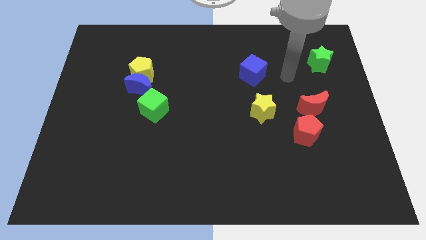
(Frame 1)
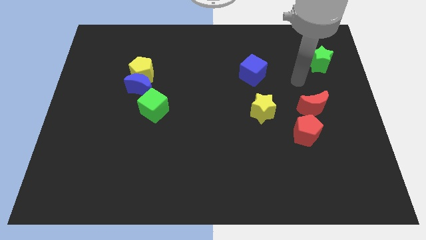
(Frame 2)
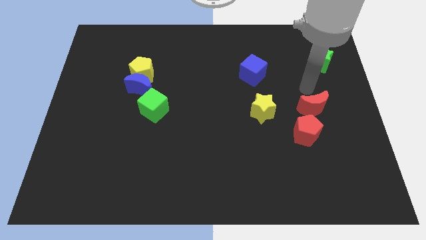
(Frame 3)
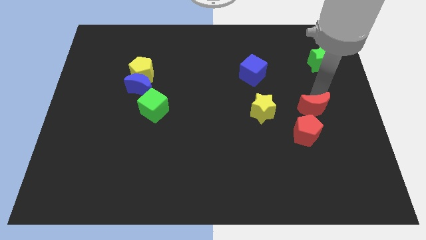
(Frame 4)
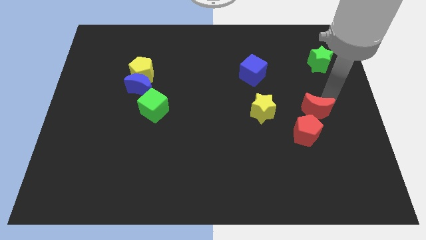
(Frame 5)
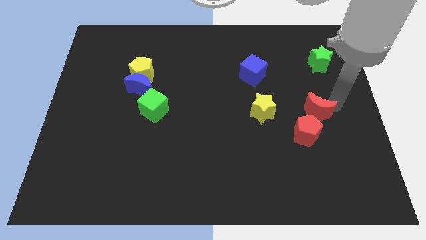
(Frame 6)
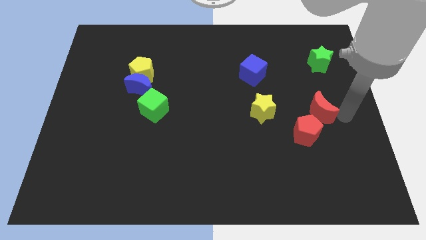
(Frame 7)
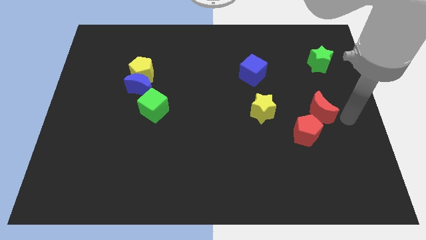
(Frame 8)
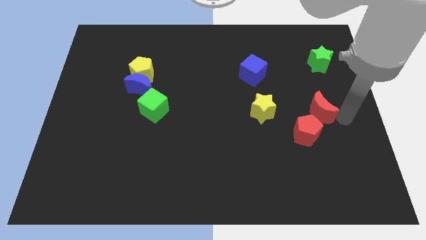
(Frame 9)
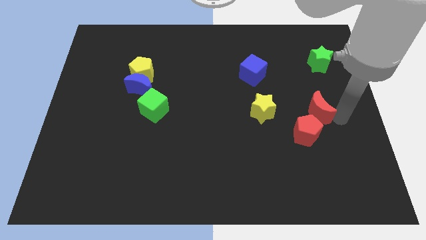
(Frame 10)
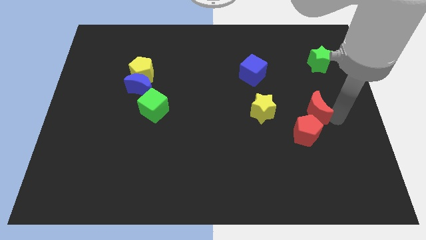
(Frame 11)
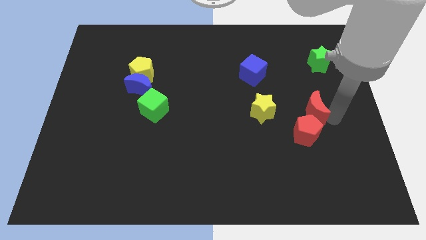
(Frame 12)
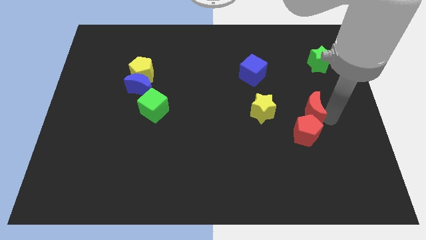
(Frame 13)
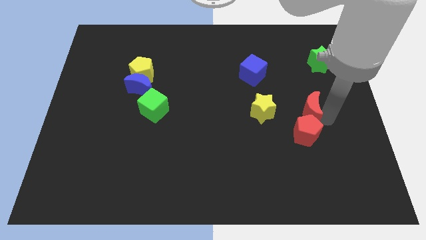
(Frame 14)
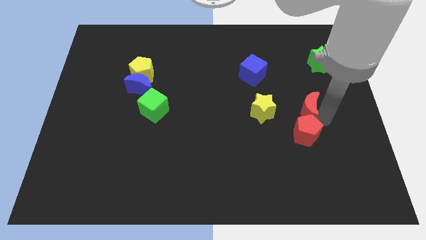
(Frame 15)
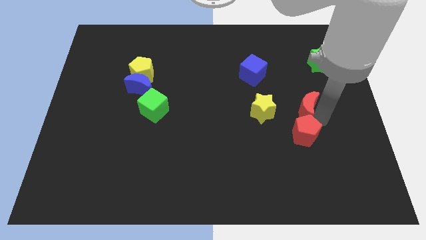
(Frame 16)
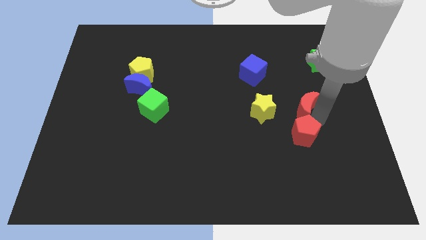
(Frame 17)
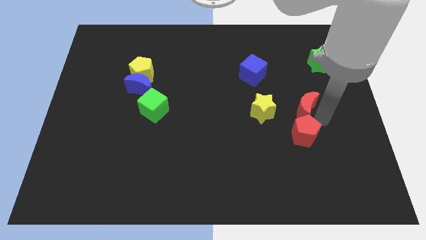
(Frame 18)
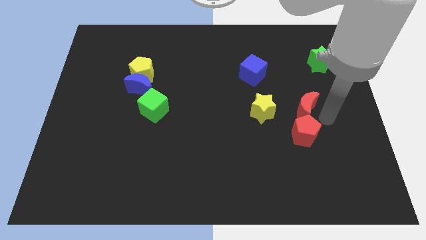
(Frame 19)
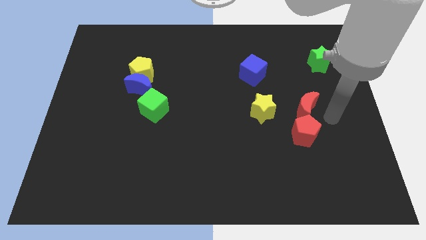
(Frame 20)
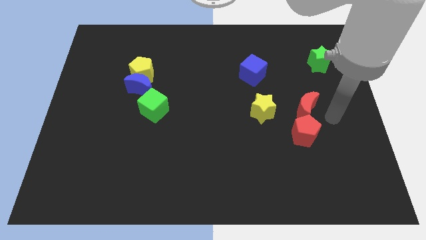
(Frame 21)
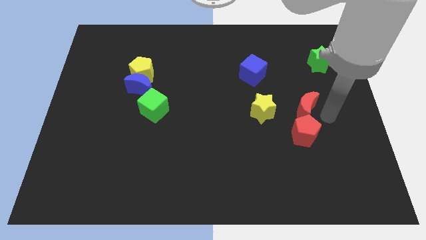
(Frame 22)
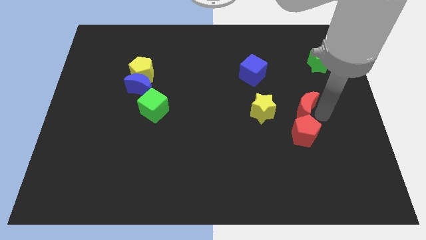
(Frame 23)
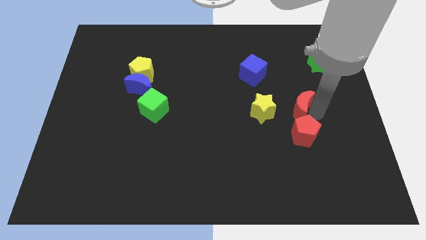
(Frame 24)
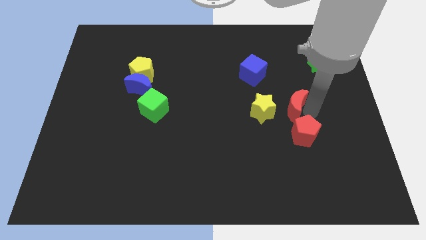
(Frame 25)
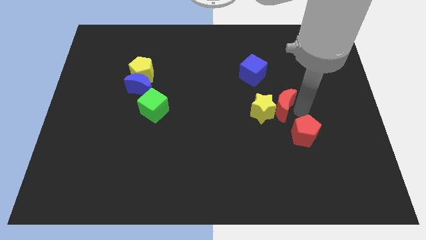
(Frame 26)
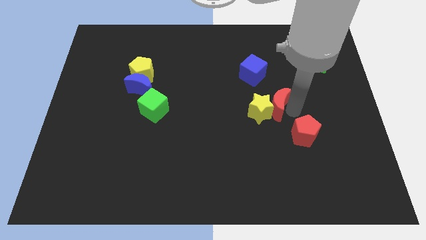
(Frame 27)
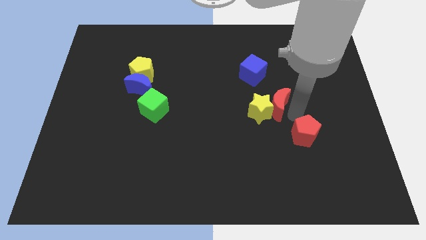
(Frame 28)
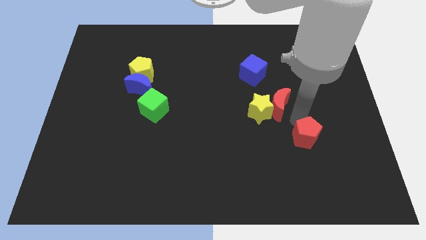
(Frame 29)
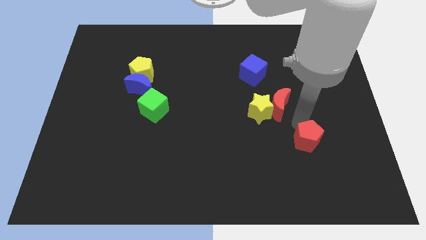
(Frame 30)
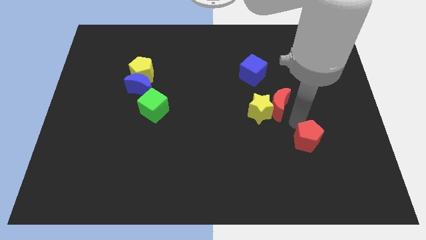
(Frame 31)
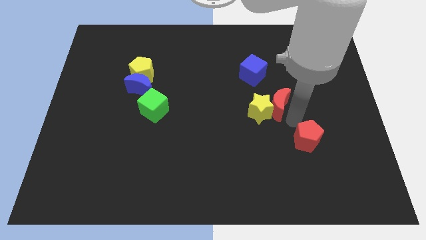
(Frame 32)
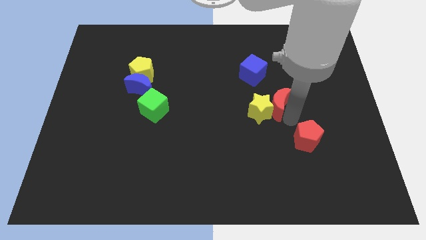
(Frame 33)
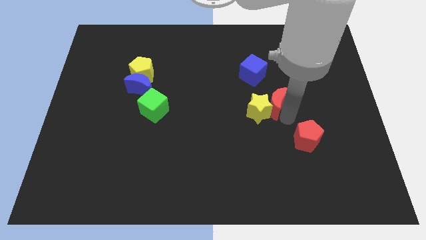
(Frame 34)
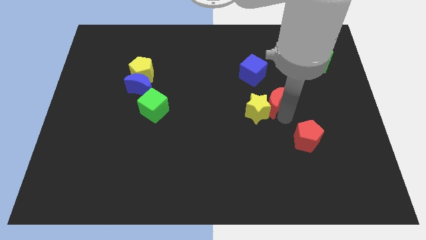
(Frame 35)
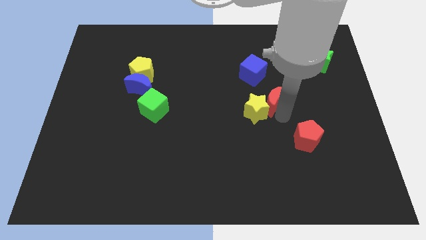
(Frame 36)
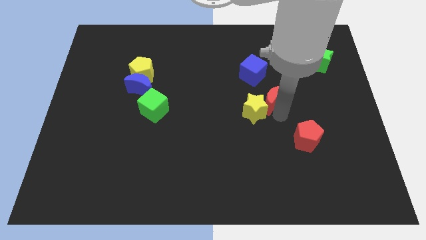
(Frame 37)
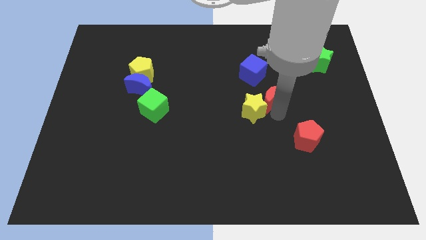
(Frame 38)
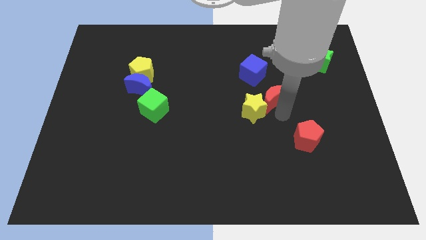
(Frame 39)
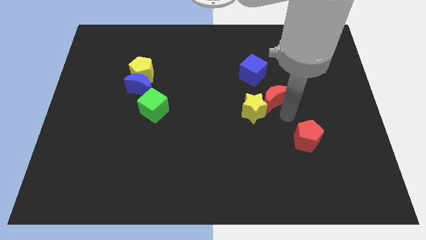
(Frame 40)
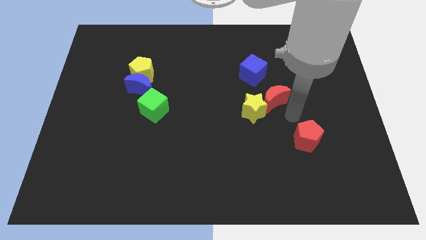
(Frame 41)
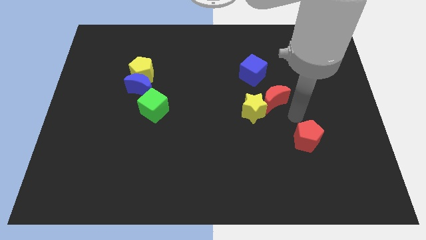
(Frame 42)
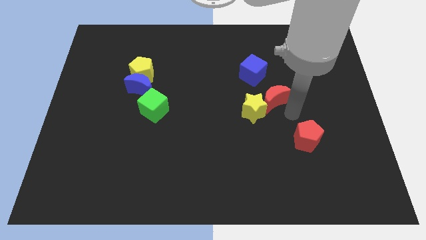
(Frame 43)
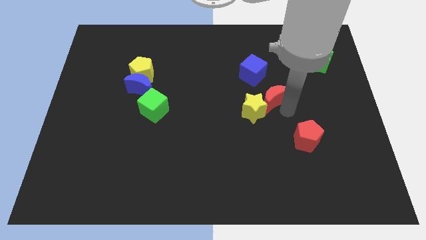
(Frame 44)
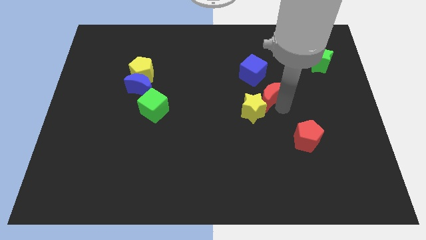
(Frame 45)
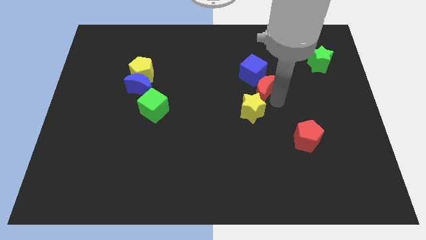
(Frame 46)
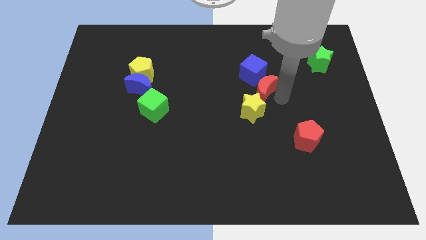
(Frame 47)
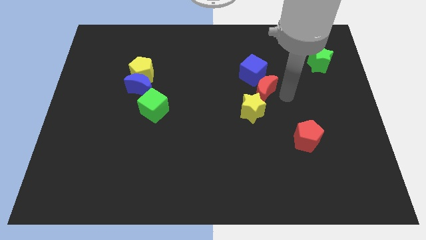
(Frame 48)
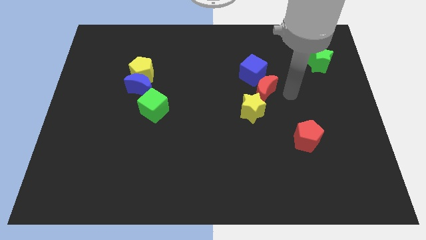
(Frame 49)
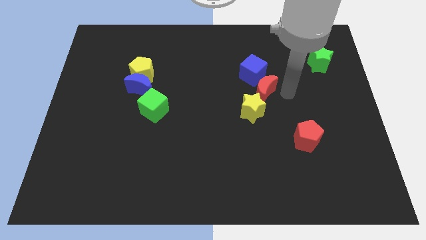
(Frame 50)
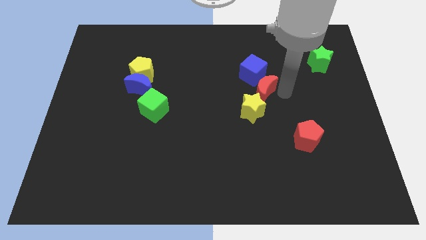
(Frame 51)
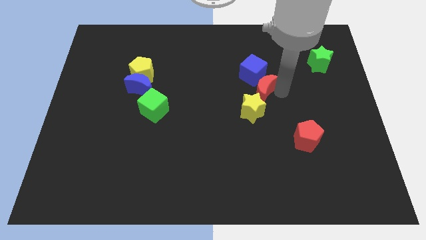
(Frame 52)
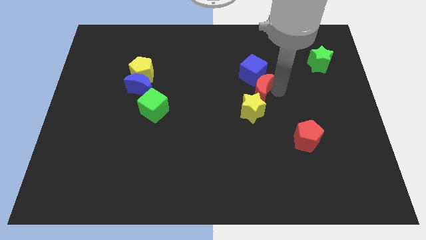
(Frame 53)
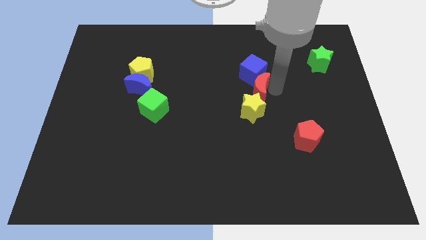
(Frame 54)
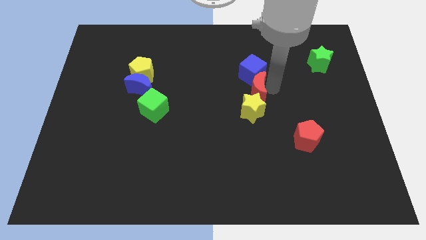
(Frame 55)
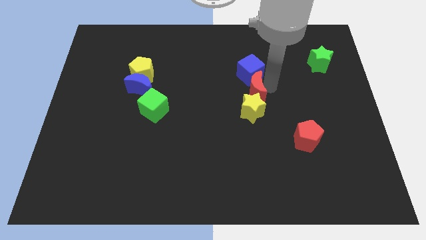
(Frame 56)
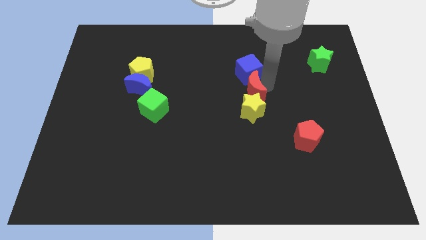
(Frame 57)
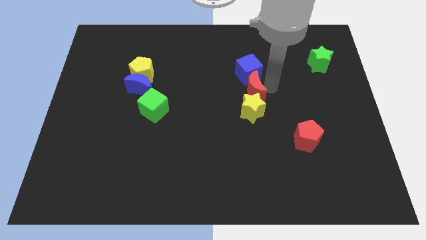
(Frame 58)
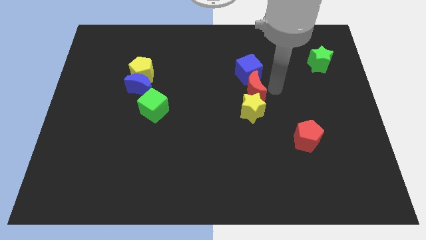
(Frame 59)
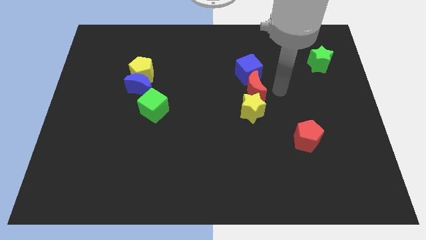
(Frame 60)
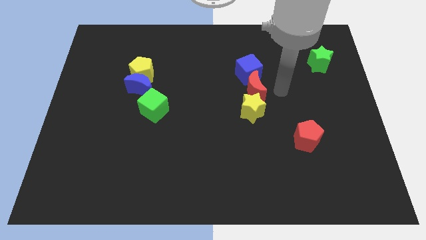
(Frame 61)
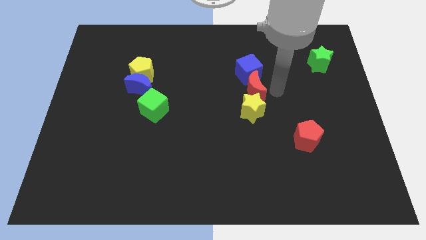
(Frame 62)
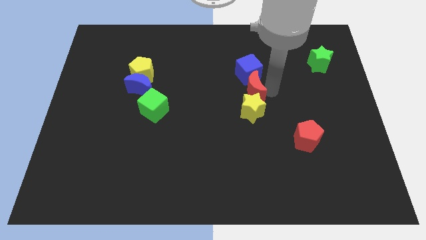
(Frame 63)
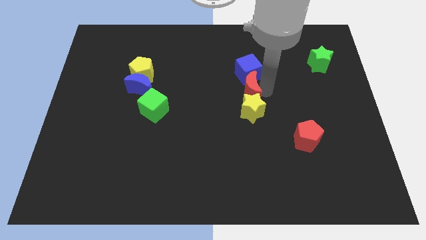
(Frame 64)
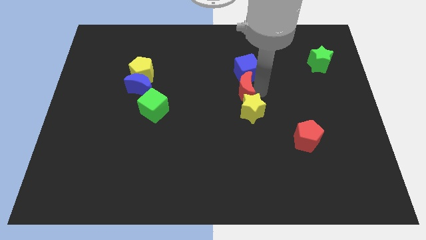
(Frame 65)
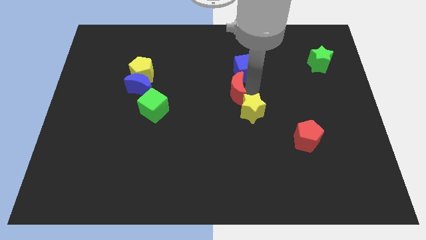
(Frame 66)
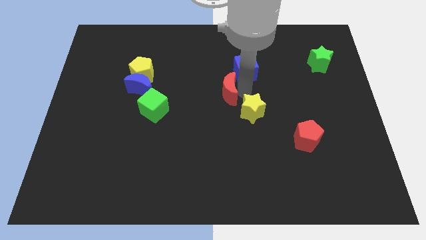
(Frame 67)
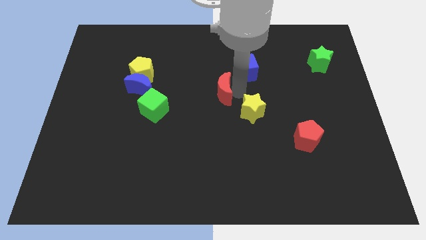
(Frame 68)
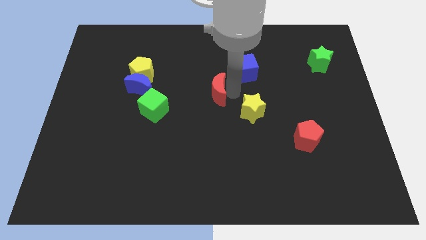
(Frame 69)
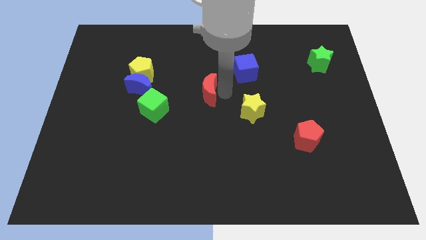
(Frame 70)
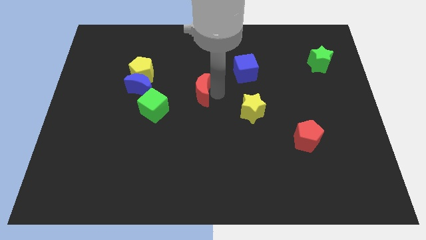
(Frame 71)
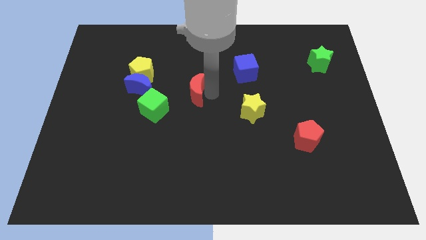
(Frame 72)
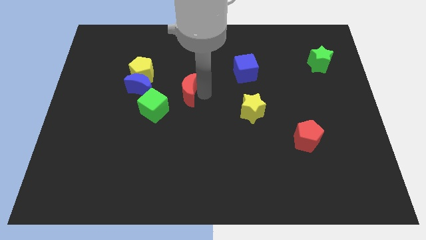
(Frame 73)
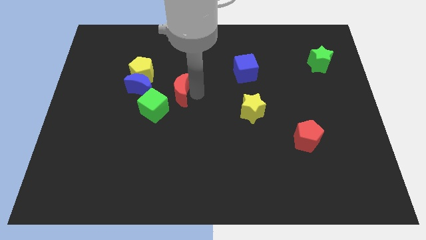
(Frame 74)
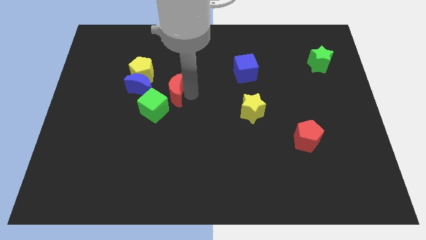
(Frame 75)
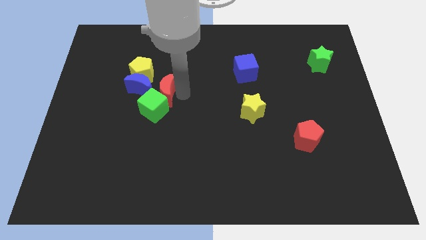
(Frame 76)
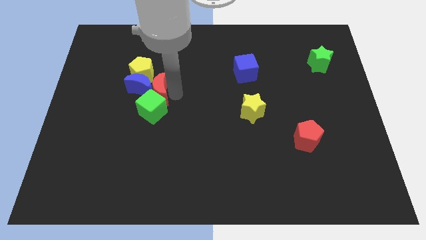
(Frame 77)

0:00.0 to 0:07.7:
put the red moon next to the blue moon
